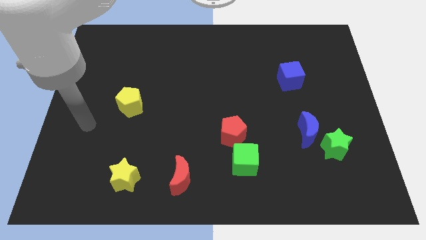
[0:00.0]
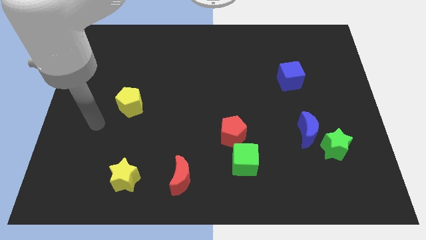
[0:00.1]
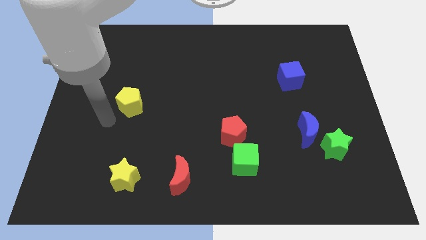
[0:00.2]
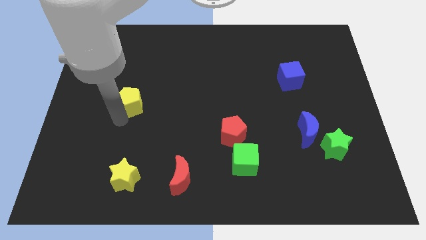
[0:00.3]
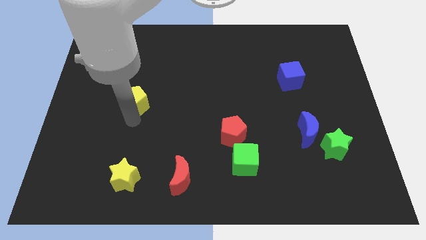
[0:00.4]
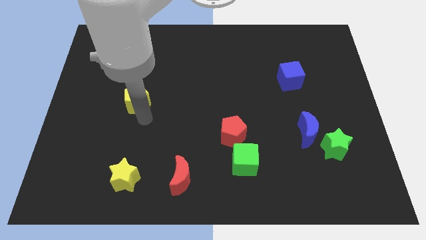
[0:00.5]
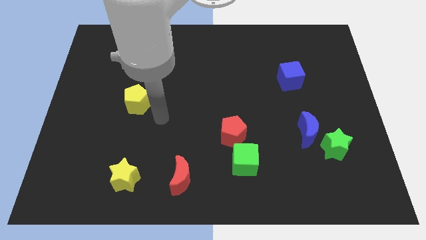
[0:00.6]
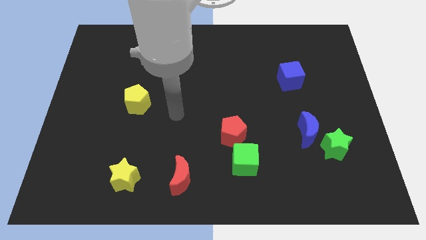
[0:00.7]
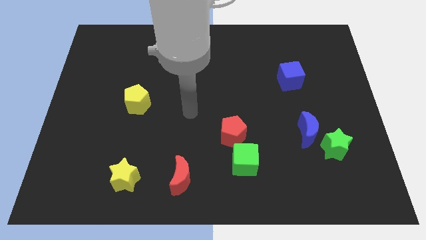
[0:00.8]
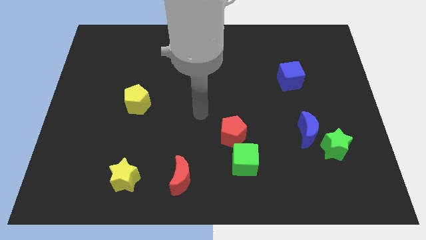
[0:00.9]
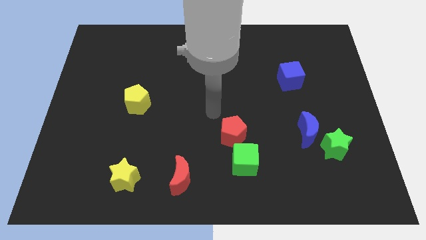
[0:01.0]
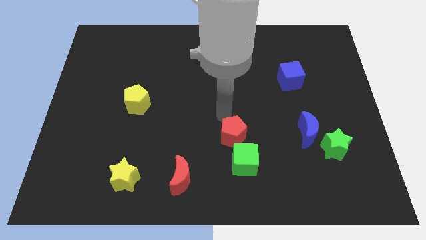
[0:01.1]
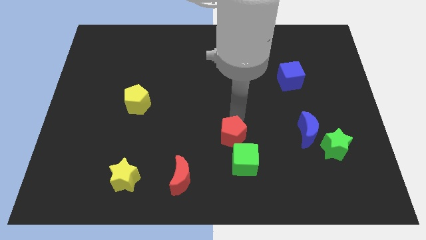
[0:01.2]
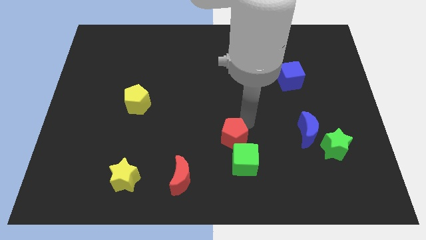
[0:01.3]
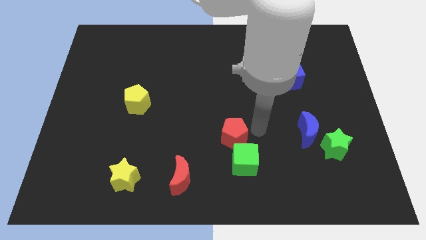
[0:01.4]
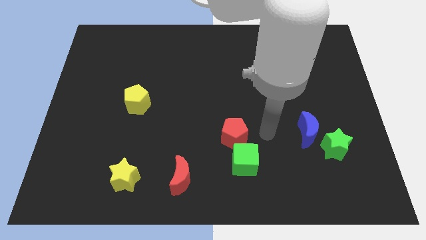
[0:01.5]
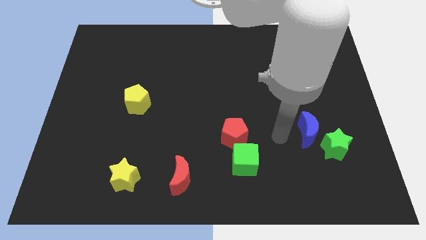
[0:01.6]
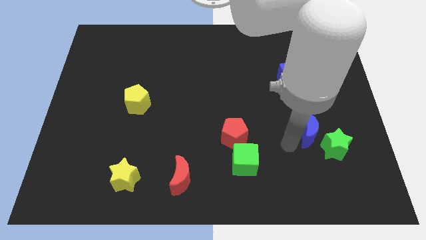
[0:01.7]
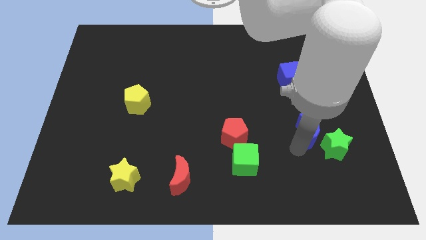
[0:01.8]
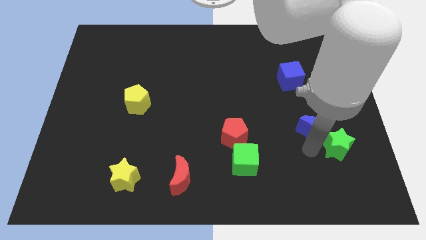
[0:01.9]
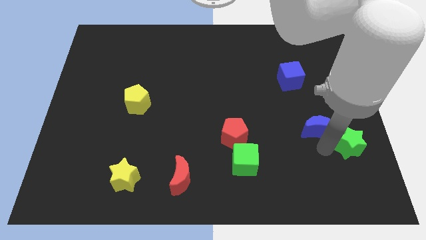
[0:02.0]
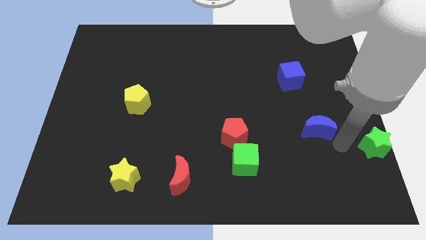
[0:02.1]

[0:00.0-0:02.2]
move the blue moon away from the green star

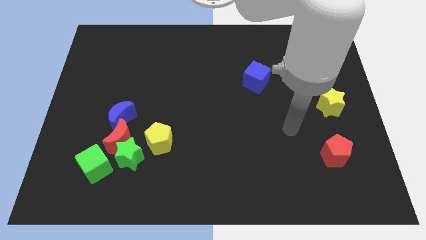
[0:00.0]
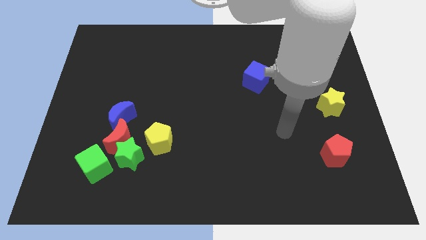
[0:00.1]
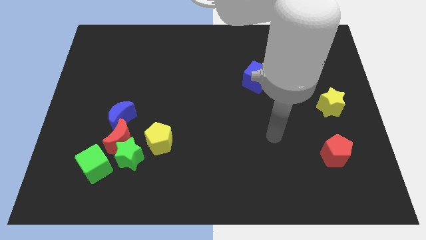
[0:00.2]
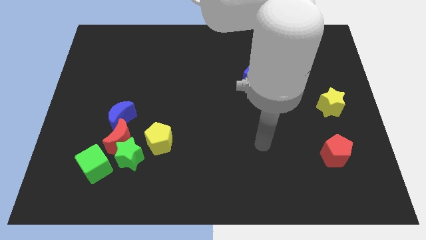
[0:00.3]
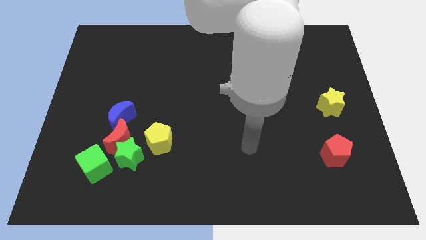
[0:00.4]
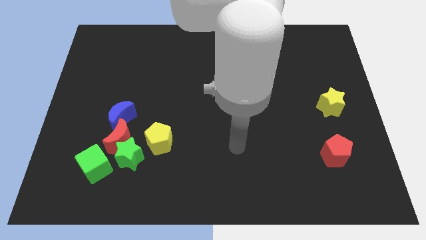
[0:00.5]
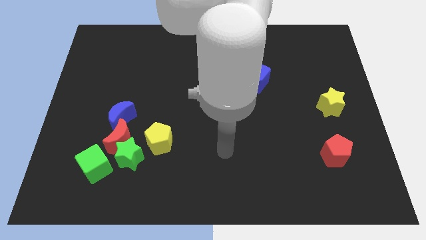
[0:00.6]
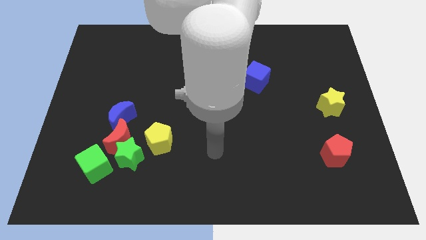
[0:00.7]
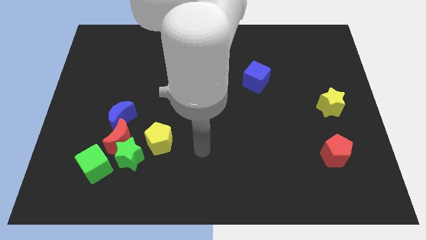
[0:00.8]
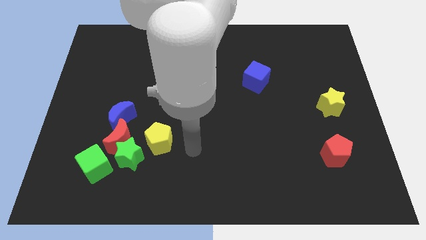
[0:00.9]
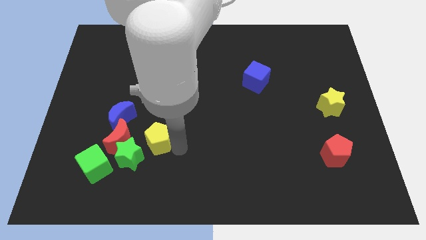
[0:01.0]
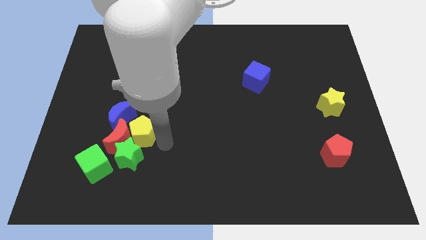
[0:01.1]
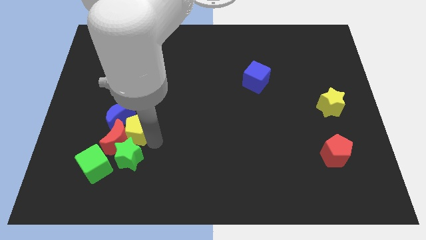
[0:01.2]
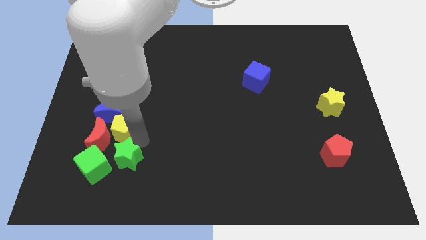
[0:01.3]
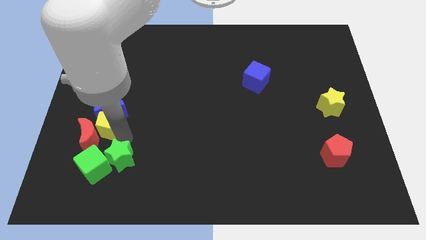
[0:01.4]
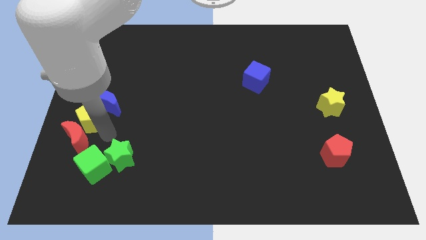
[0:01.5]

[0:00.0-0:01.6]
move the blue moon away from the red moon

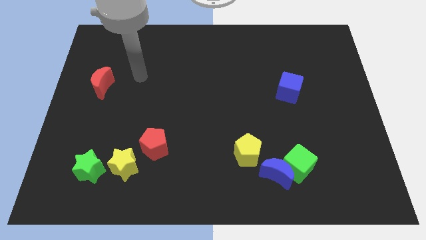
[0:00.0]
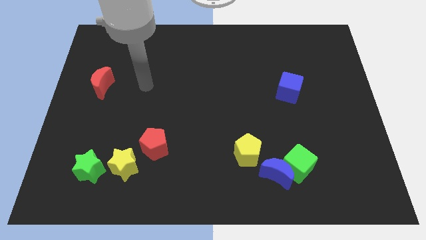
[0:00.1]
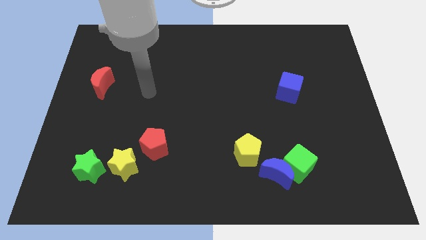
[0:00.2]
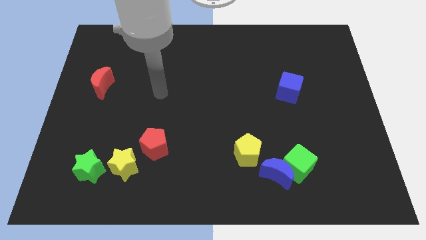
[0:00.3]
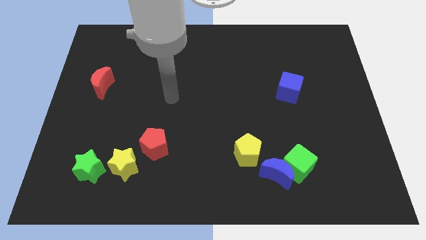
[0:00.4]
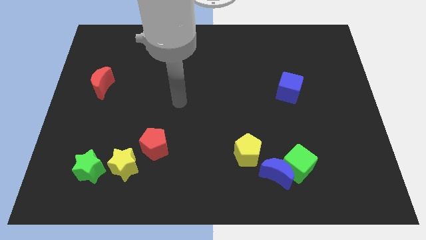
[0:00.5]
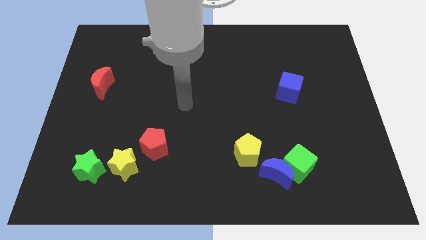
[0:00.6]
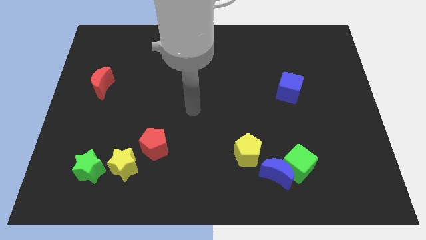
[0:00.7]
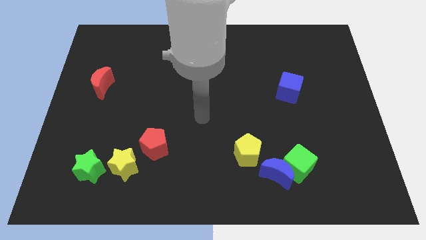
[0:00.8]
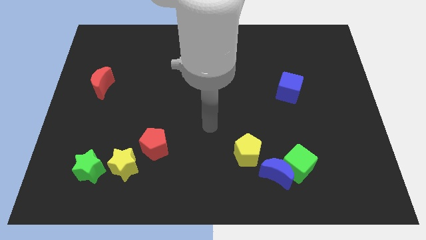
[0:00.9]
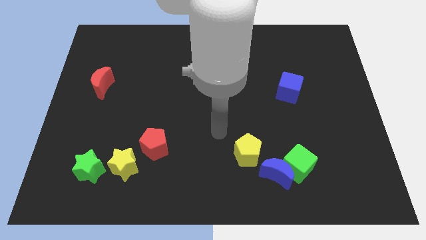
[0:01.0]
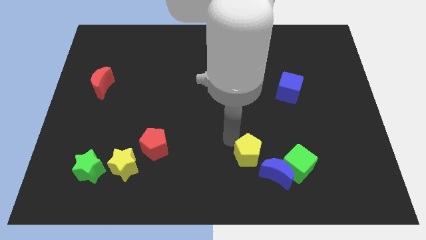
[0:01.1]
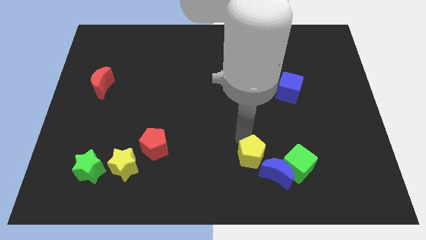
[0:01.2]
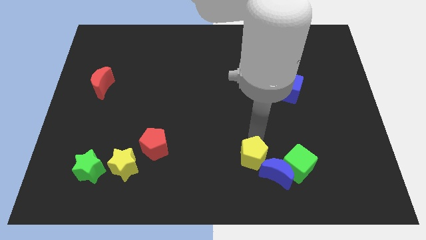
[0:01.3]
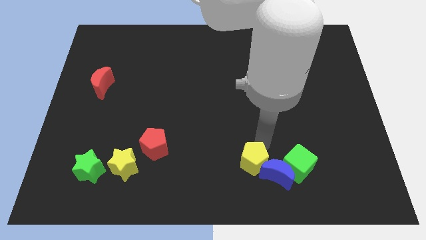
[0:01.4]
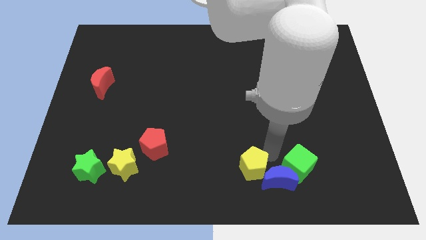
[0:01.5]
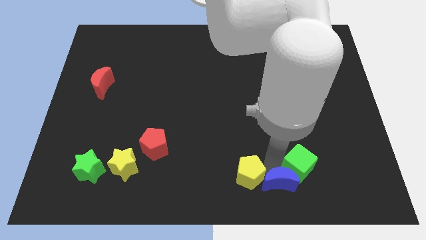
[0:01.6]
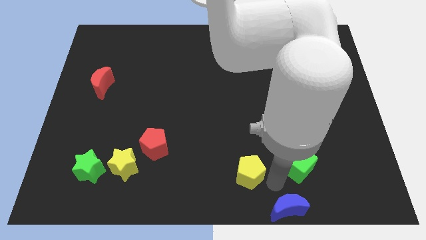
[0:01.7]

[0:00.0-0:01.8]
pull the green cube apart from the blue moon

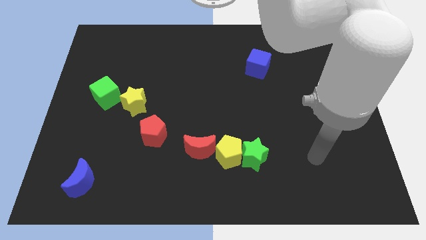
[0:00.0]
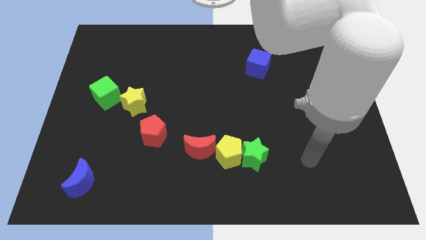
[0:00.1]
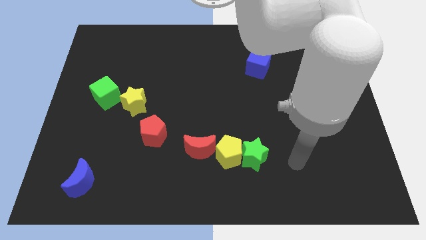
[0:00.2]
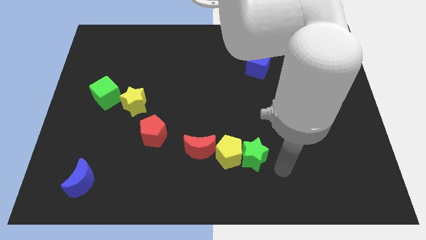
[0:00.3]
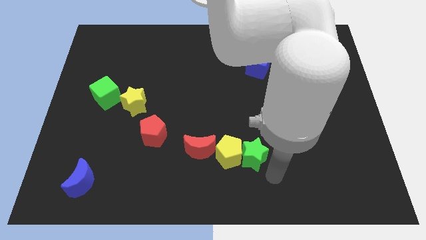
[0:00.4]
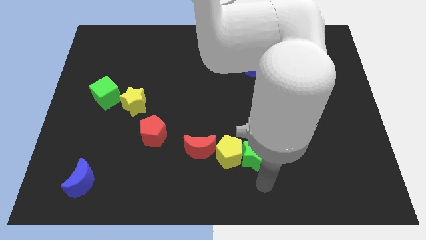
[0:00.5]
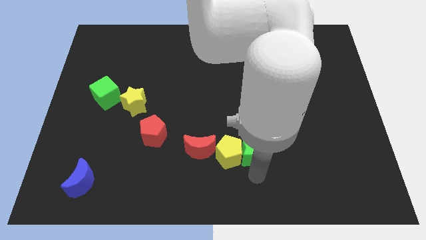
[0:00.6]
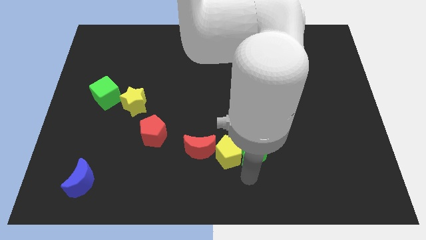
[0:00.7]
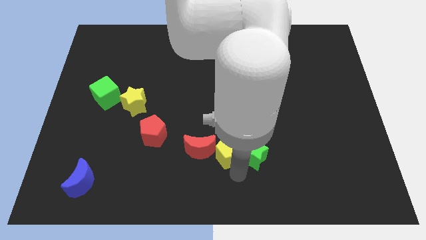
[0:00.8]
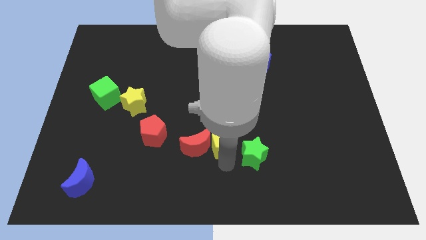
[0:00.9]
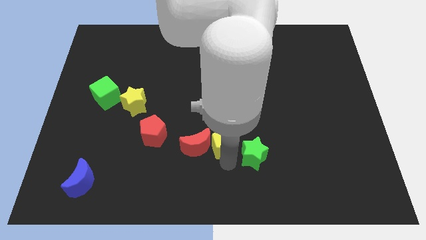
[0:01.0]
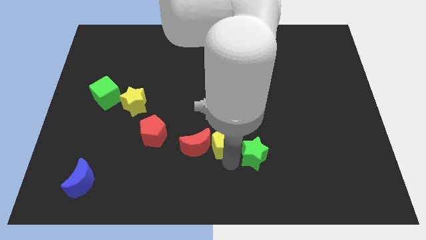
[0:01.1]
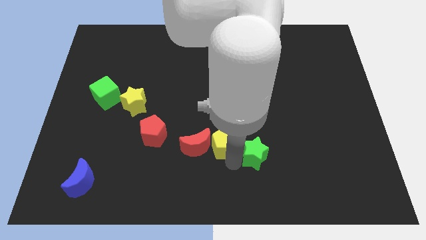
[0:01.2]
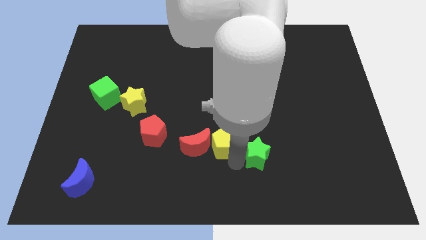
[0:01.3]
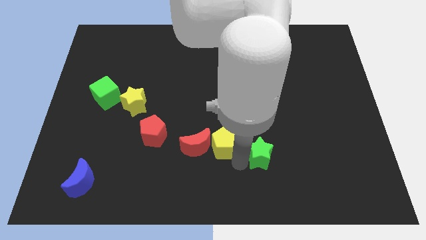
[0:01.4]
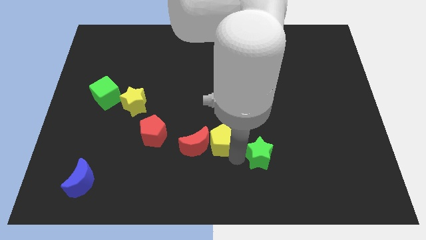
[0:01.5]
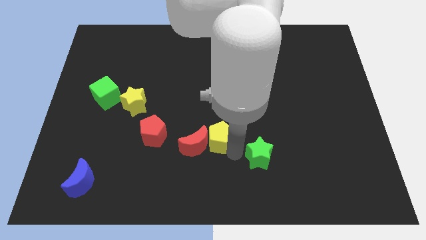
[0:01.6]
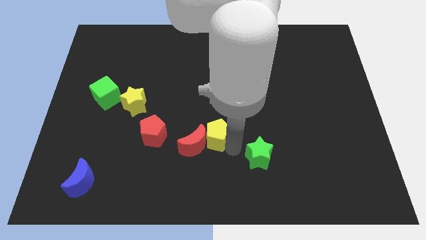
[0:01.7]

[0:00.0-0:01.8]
pull the green star apart from the yellow pentagon

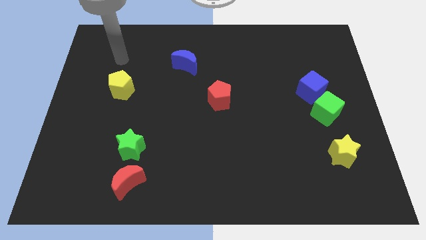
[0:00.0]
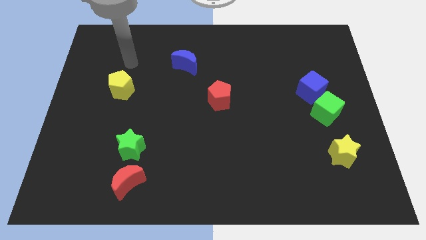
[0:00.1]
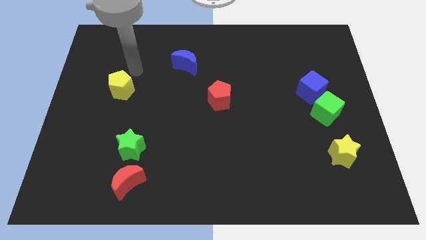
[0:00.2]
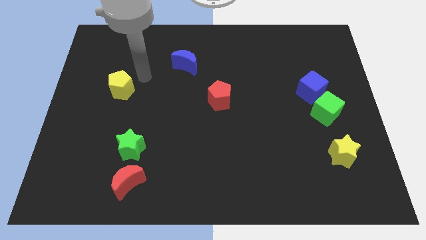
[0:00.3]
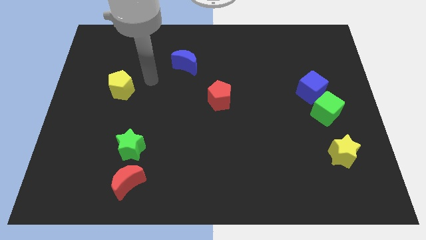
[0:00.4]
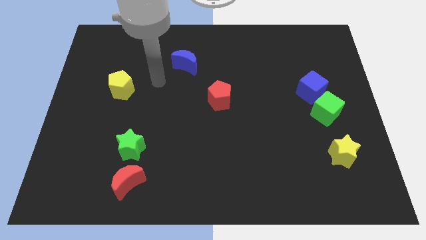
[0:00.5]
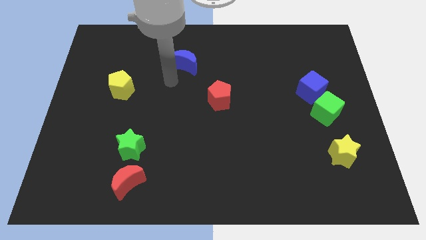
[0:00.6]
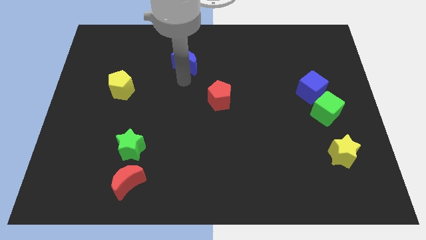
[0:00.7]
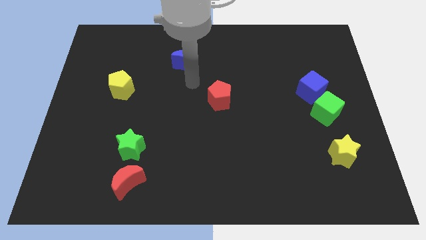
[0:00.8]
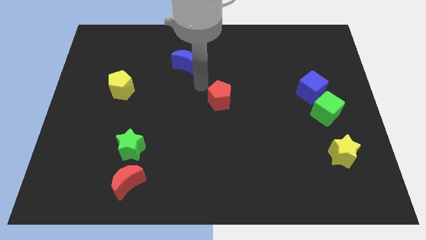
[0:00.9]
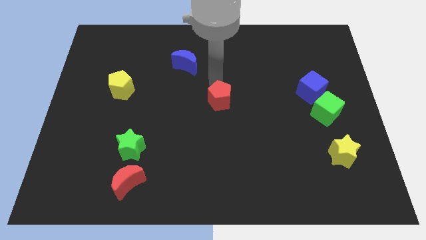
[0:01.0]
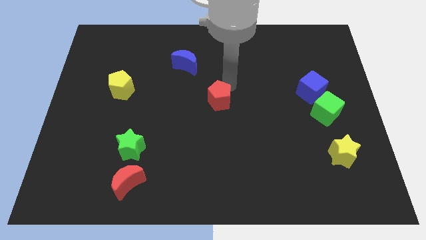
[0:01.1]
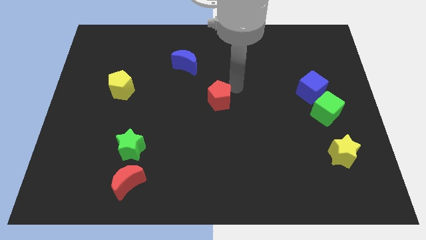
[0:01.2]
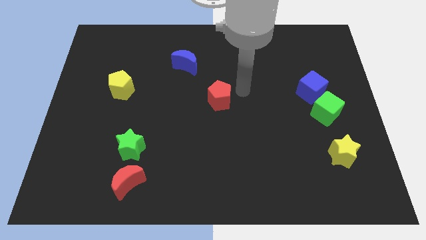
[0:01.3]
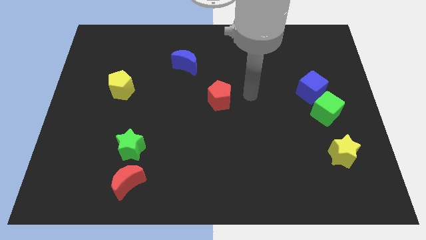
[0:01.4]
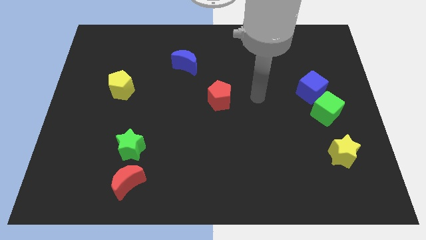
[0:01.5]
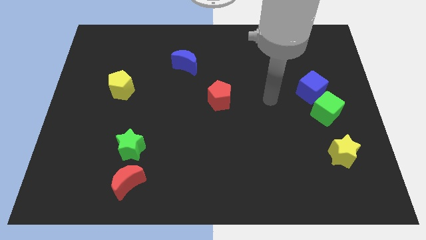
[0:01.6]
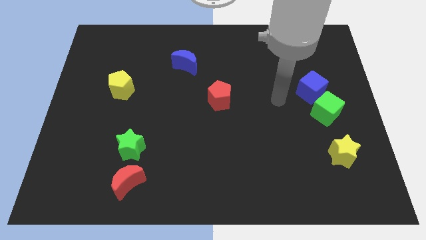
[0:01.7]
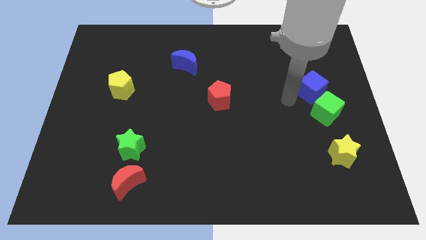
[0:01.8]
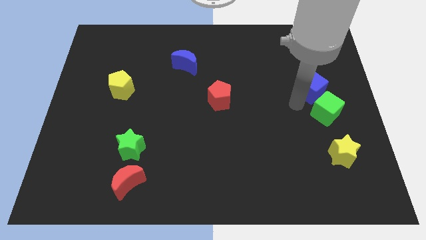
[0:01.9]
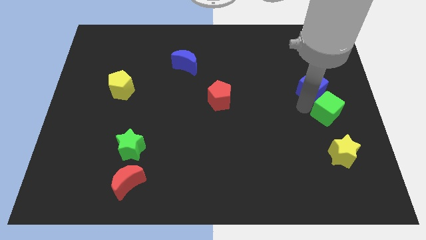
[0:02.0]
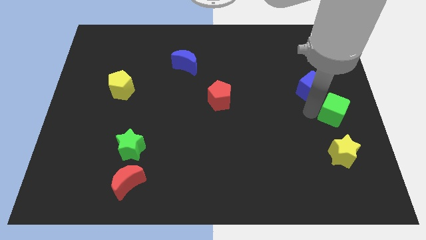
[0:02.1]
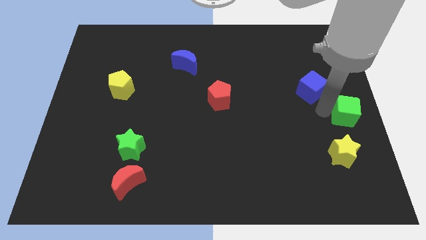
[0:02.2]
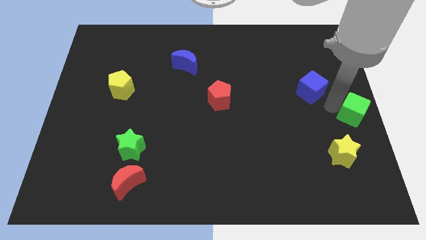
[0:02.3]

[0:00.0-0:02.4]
pull the blue cube apart from the green cube
